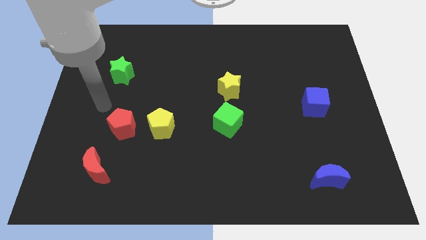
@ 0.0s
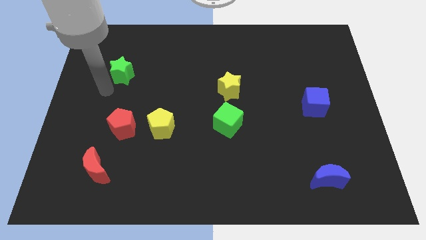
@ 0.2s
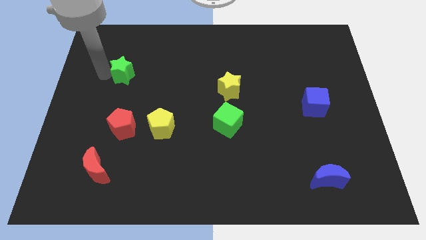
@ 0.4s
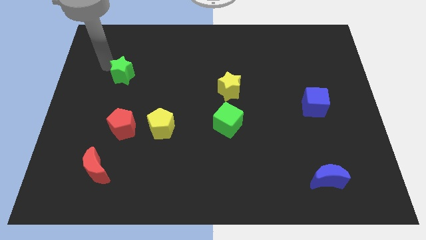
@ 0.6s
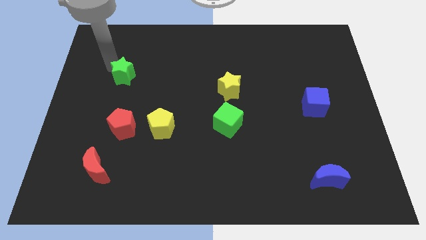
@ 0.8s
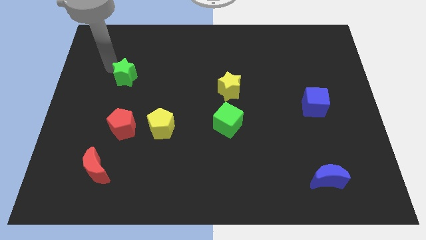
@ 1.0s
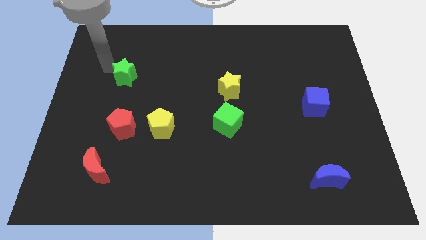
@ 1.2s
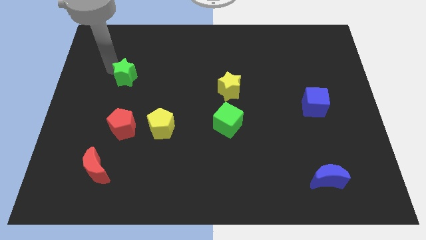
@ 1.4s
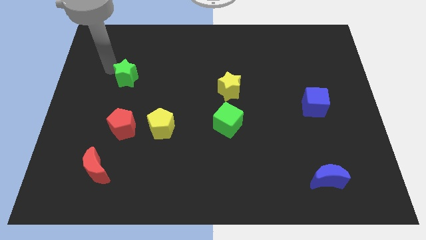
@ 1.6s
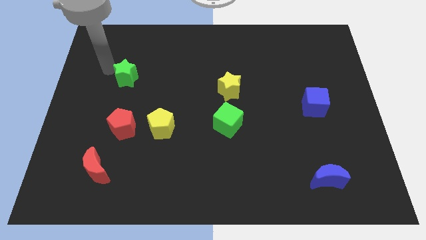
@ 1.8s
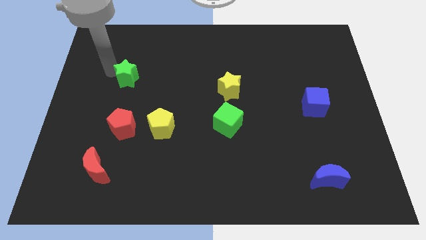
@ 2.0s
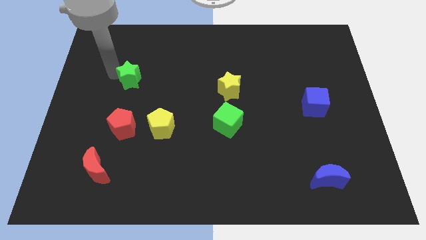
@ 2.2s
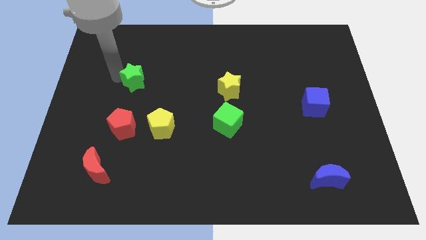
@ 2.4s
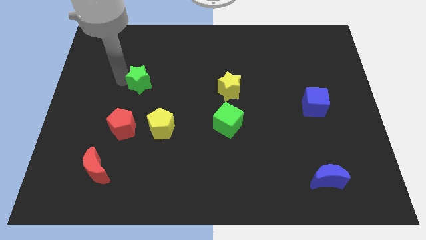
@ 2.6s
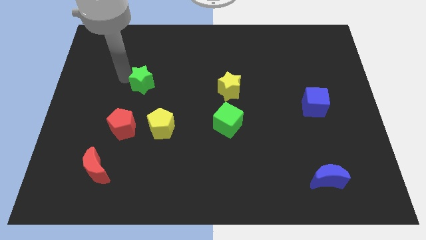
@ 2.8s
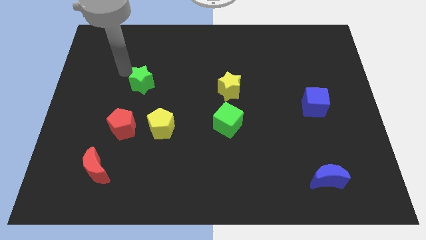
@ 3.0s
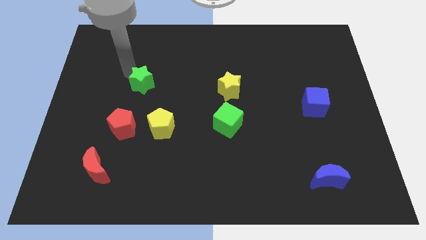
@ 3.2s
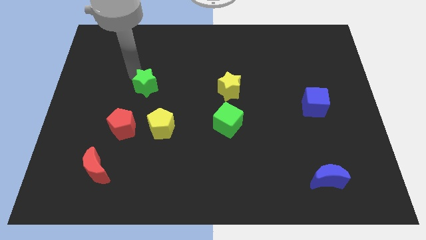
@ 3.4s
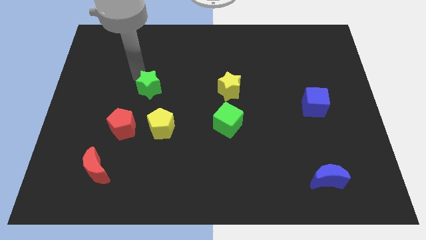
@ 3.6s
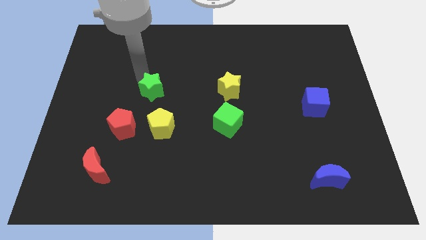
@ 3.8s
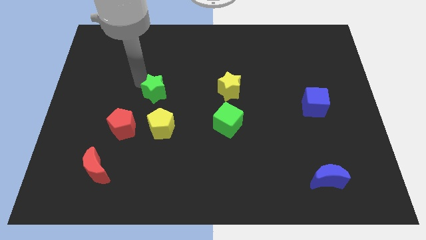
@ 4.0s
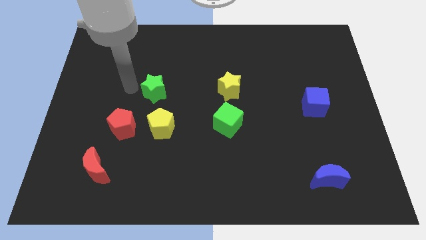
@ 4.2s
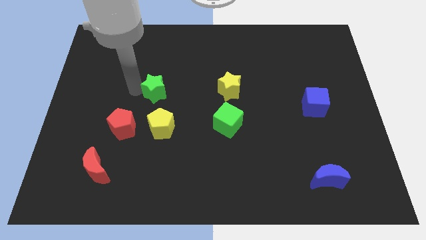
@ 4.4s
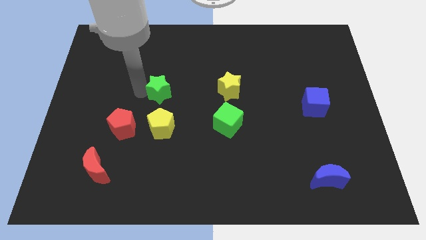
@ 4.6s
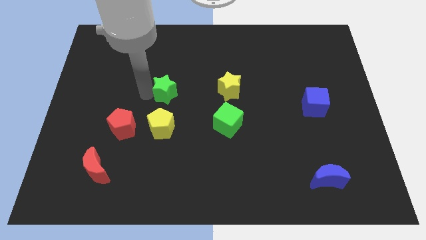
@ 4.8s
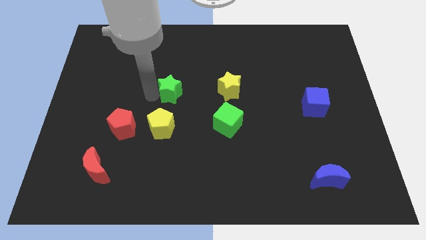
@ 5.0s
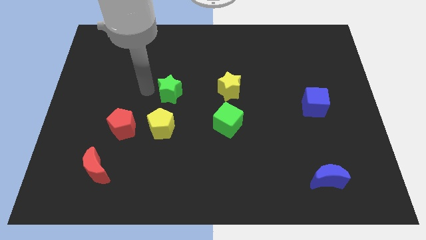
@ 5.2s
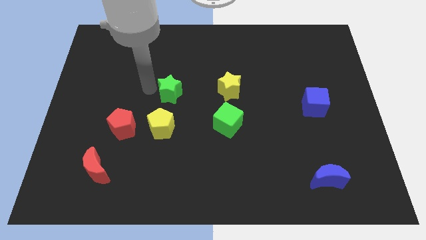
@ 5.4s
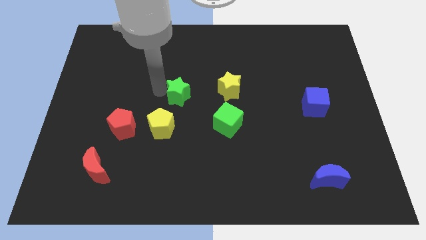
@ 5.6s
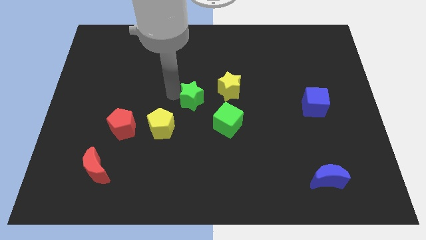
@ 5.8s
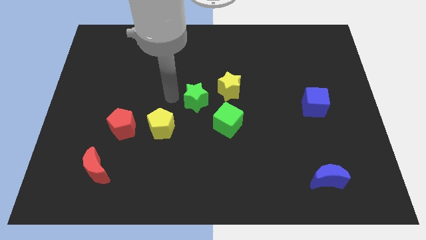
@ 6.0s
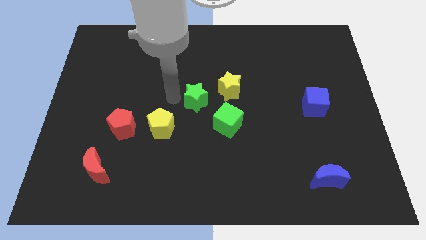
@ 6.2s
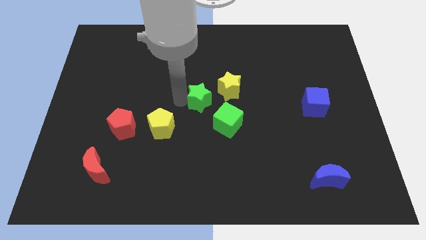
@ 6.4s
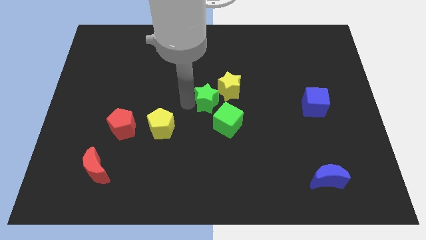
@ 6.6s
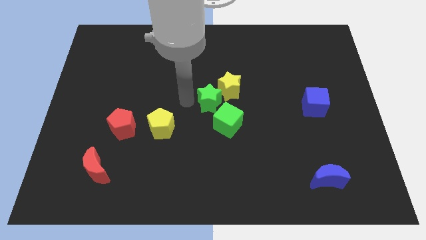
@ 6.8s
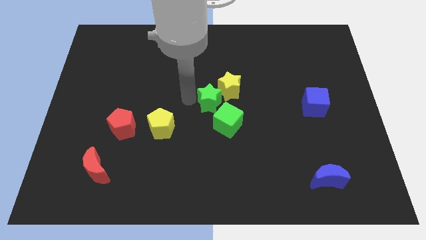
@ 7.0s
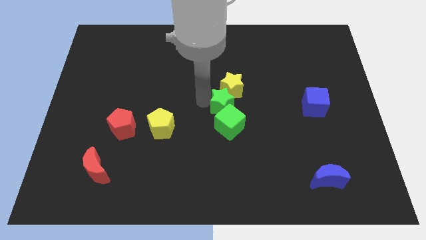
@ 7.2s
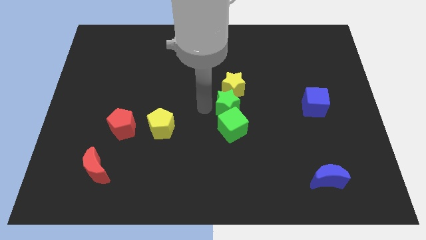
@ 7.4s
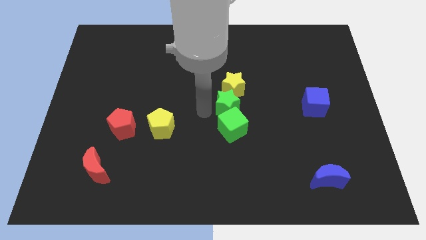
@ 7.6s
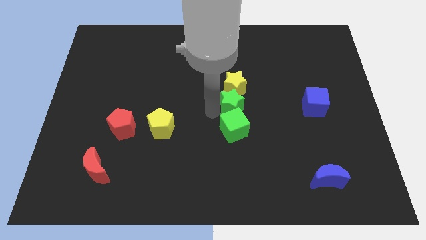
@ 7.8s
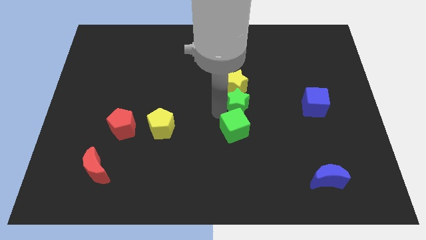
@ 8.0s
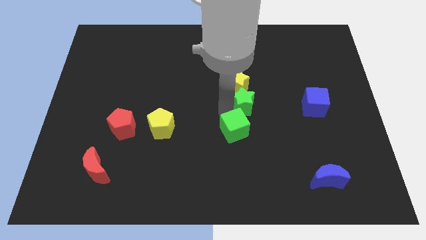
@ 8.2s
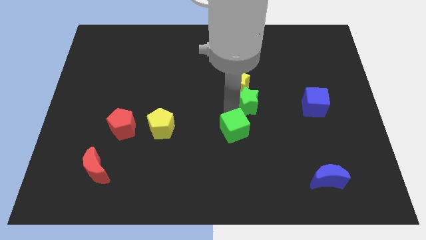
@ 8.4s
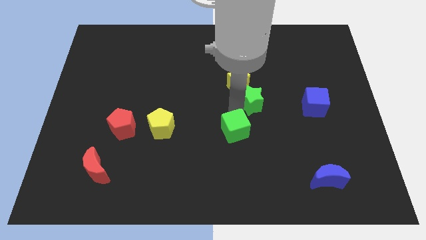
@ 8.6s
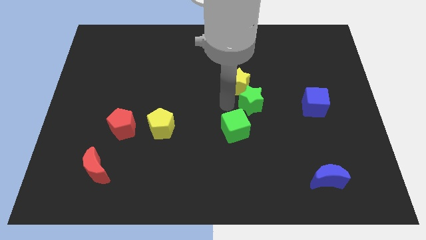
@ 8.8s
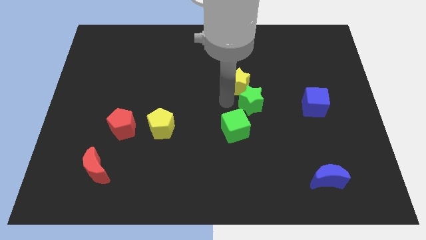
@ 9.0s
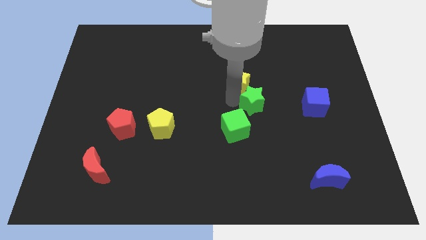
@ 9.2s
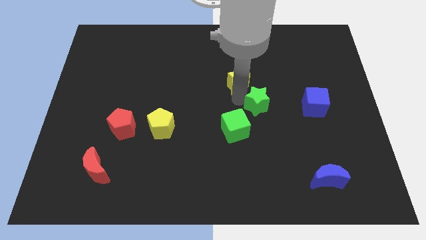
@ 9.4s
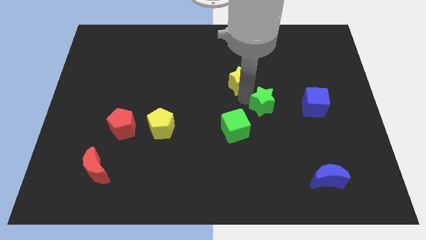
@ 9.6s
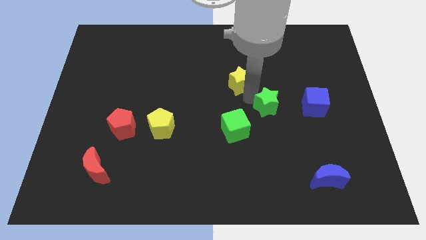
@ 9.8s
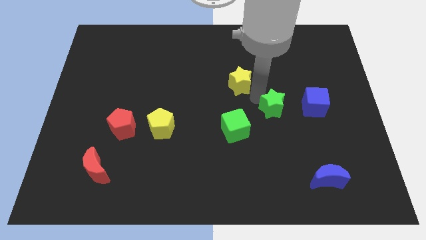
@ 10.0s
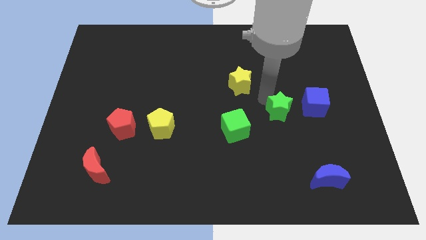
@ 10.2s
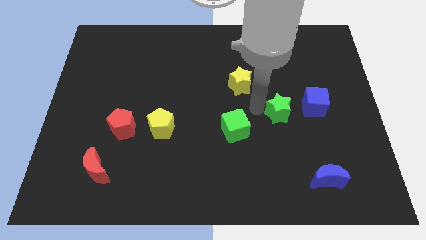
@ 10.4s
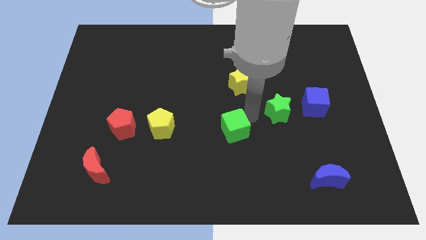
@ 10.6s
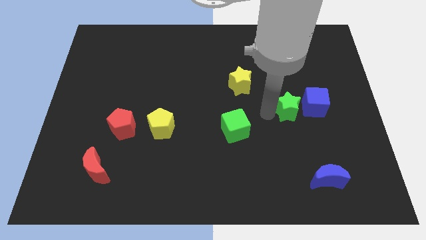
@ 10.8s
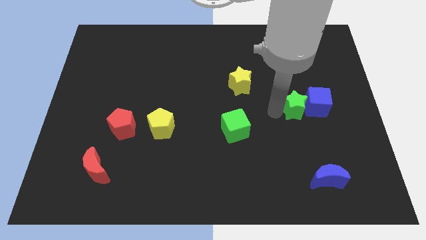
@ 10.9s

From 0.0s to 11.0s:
push the green star towards the blue cube
